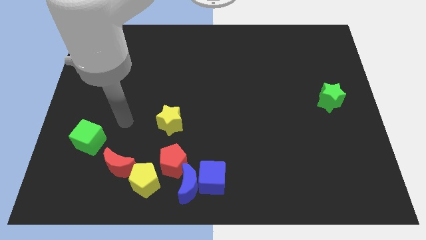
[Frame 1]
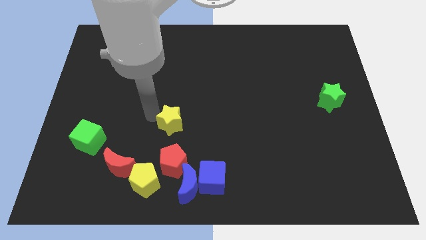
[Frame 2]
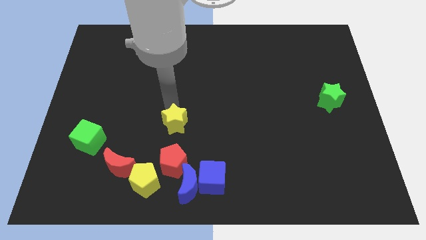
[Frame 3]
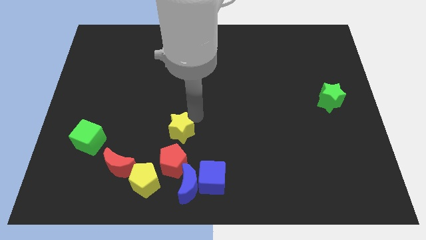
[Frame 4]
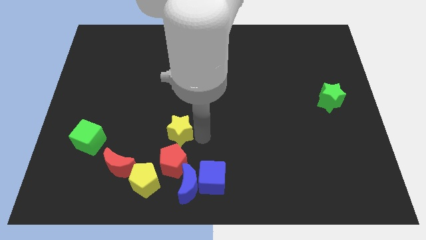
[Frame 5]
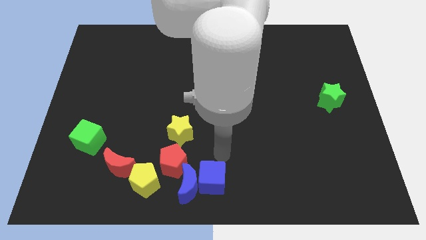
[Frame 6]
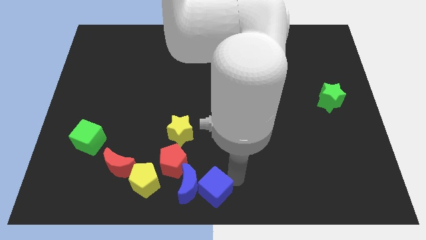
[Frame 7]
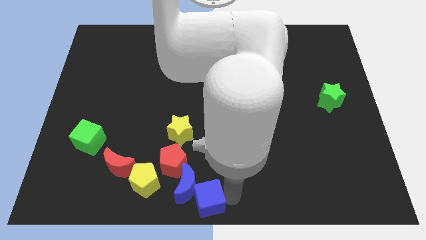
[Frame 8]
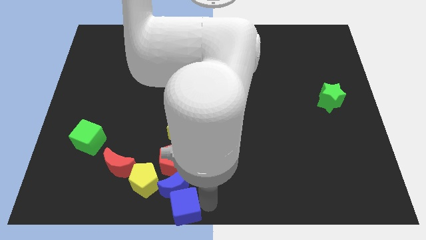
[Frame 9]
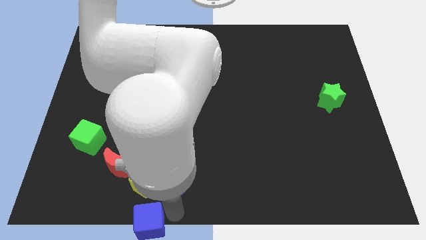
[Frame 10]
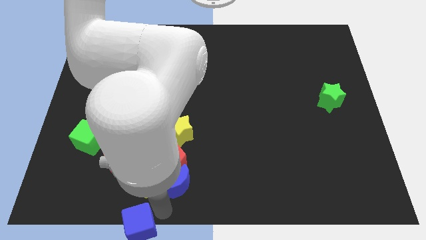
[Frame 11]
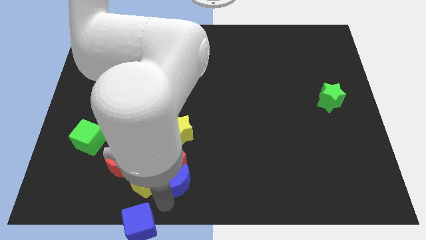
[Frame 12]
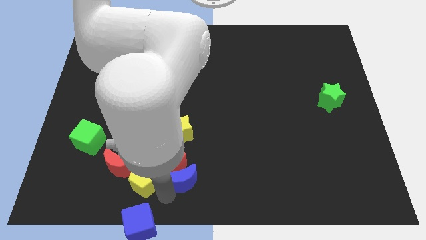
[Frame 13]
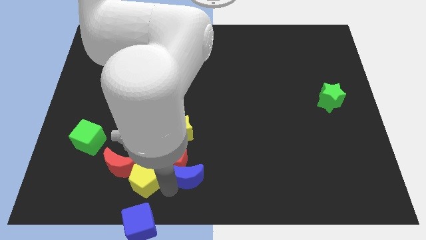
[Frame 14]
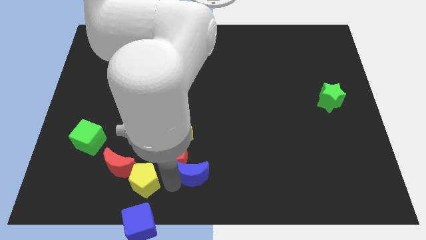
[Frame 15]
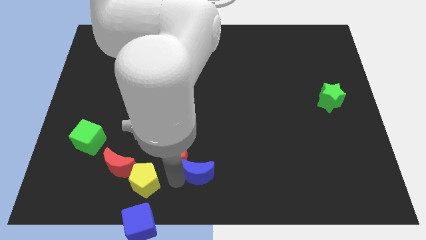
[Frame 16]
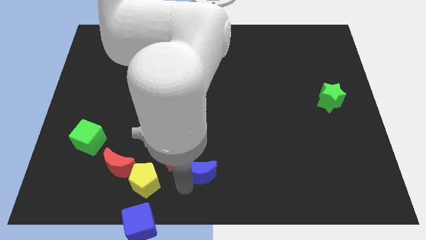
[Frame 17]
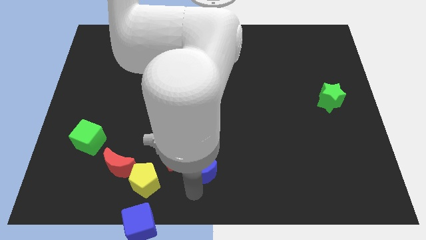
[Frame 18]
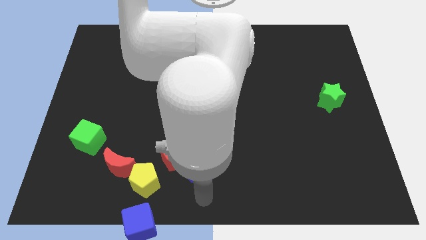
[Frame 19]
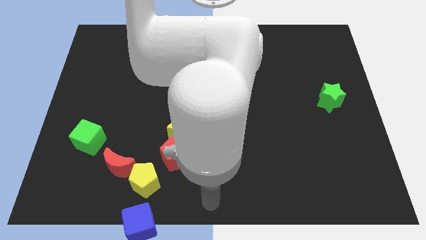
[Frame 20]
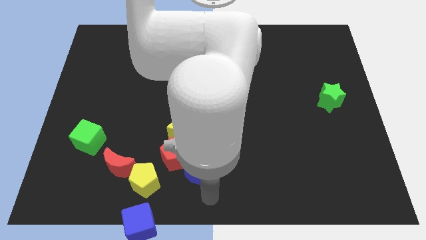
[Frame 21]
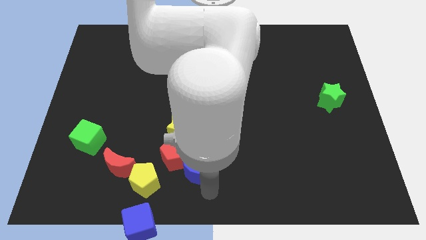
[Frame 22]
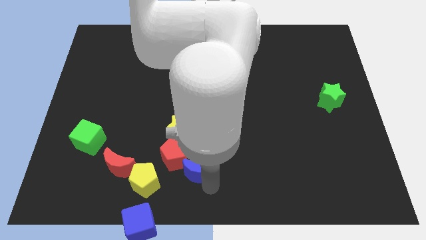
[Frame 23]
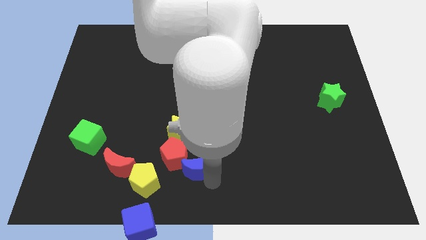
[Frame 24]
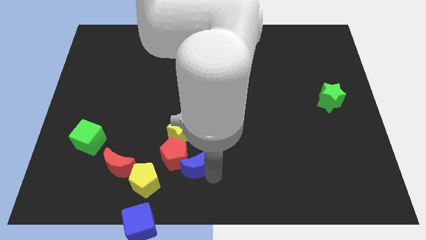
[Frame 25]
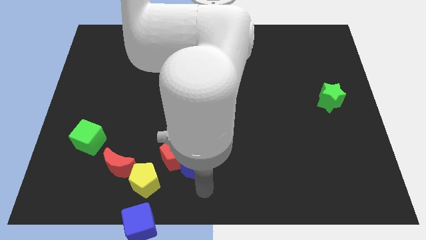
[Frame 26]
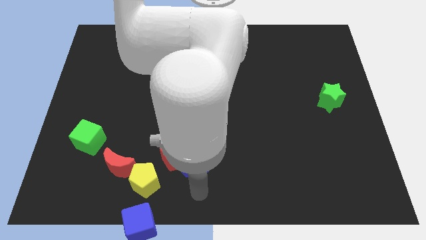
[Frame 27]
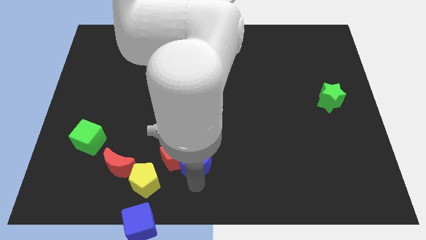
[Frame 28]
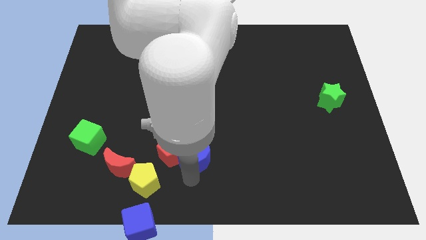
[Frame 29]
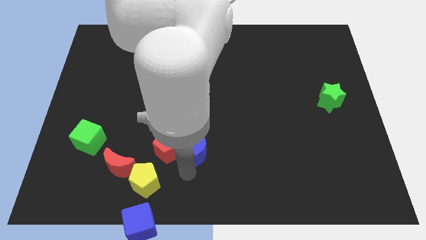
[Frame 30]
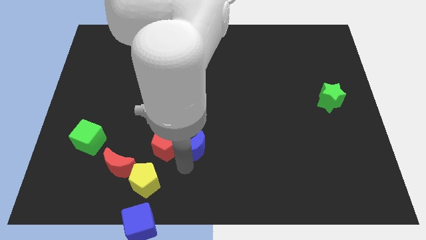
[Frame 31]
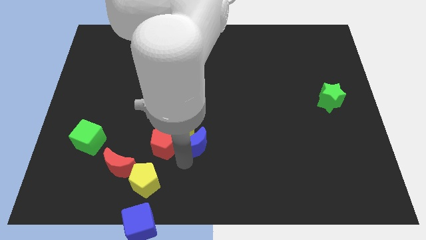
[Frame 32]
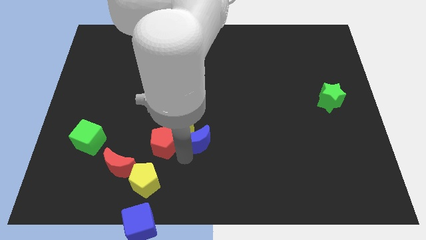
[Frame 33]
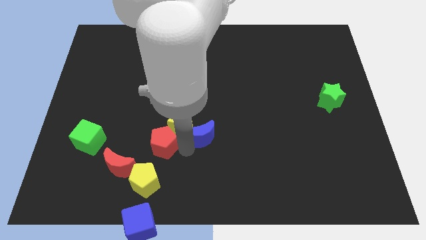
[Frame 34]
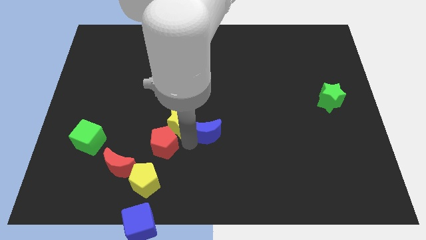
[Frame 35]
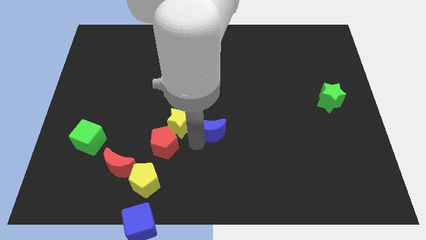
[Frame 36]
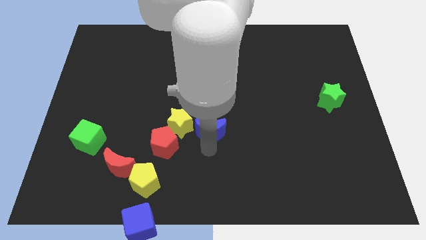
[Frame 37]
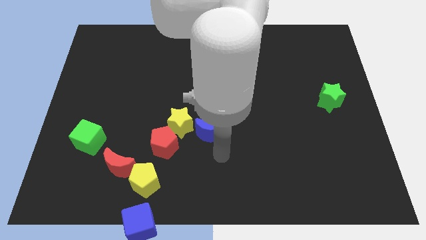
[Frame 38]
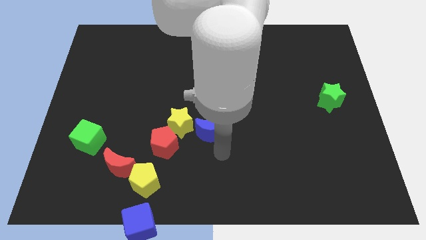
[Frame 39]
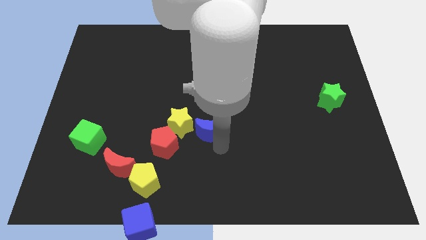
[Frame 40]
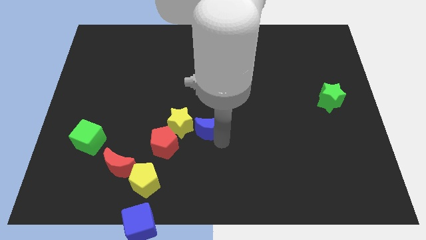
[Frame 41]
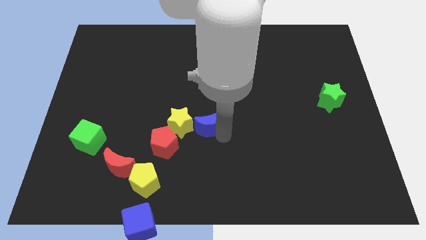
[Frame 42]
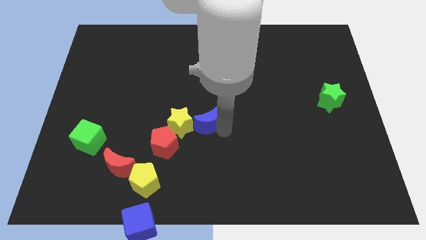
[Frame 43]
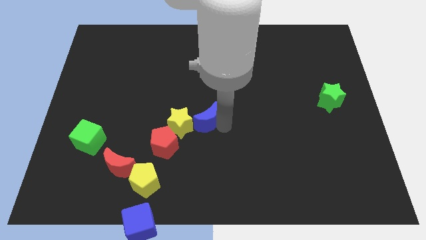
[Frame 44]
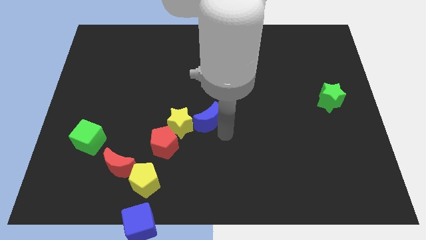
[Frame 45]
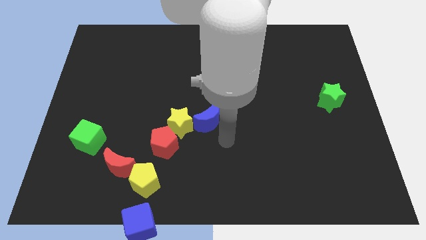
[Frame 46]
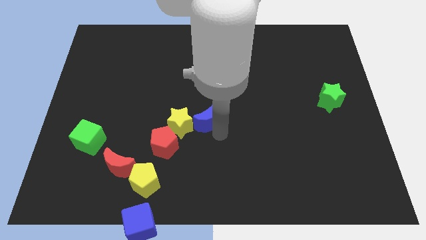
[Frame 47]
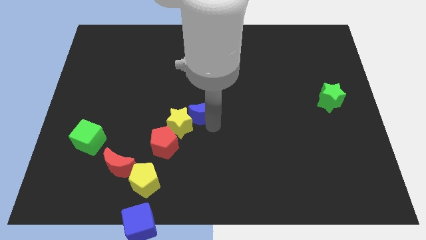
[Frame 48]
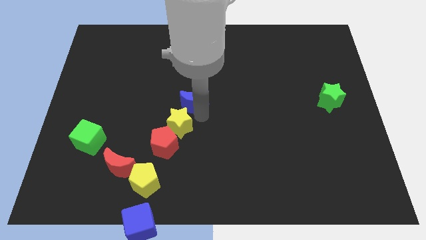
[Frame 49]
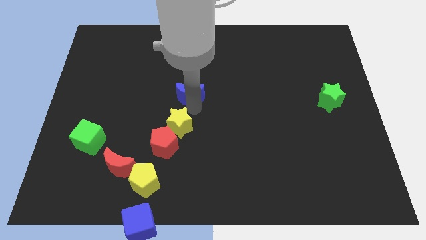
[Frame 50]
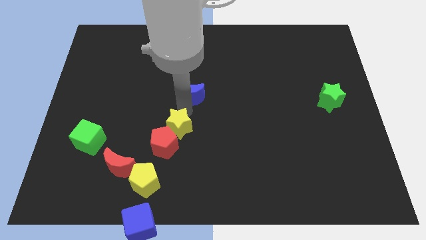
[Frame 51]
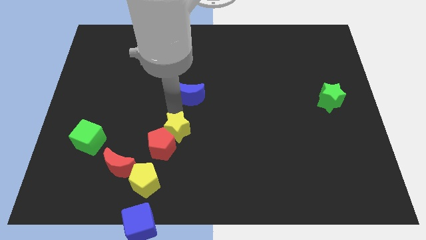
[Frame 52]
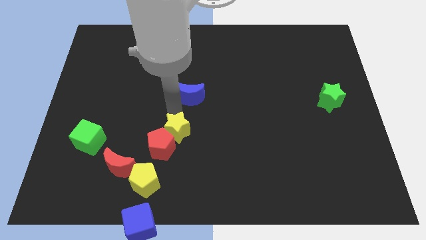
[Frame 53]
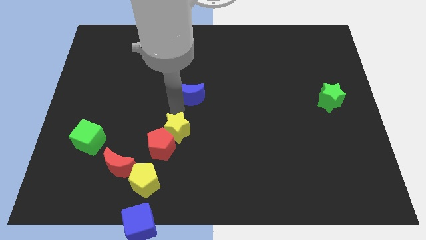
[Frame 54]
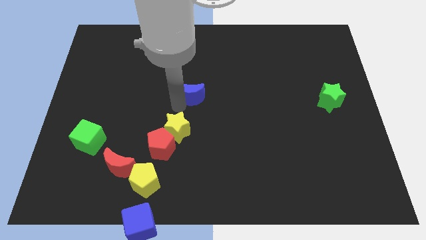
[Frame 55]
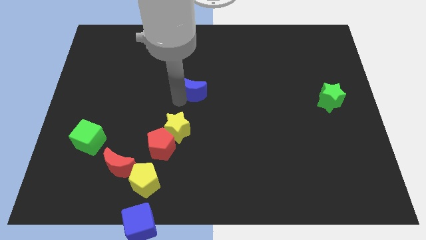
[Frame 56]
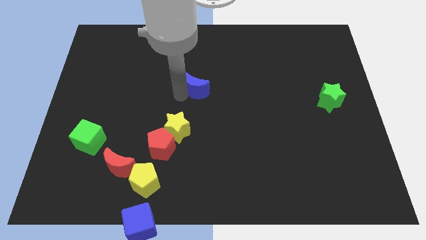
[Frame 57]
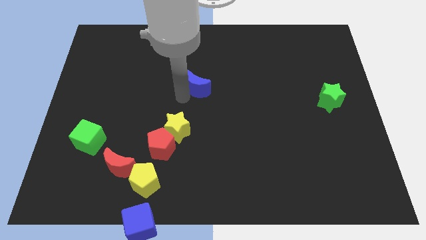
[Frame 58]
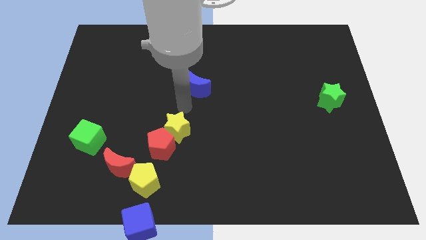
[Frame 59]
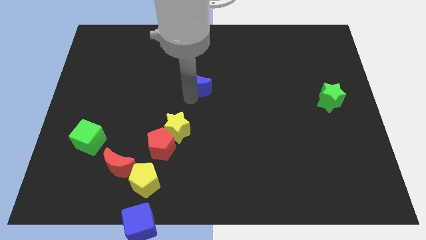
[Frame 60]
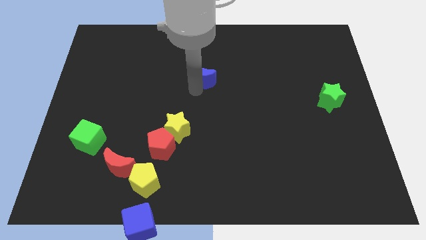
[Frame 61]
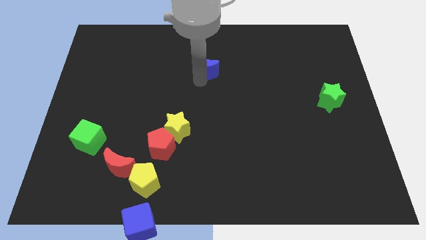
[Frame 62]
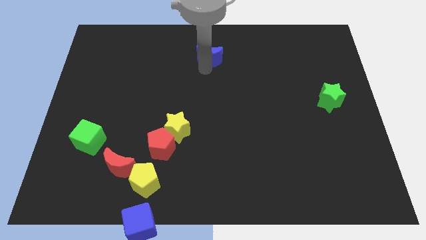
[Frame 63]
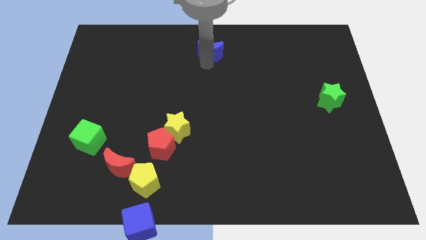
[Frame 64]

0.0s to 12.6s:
push the blue moon to the top side
